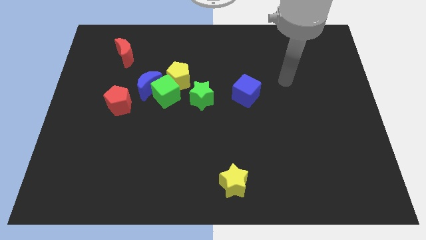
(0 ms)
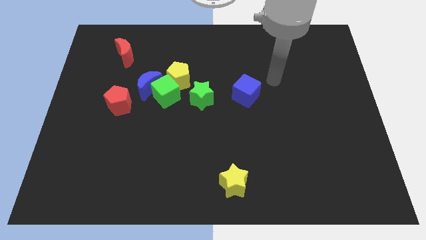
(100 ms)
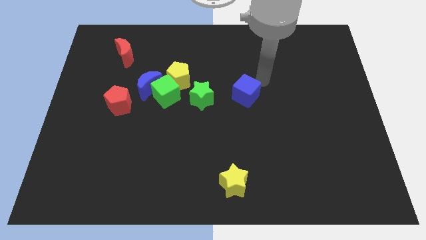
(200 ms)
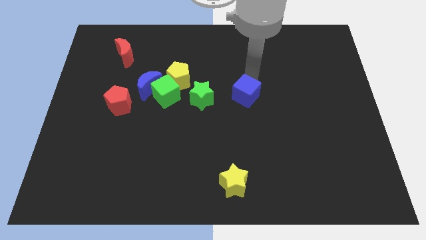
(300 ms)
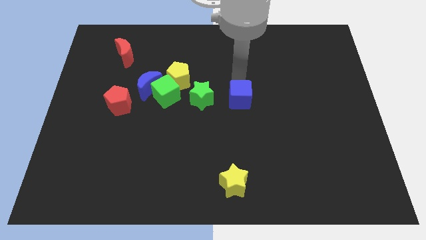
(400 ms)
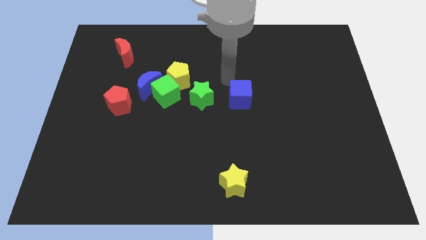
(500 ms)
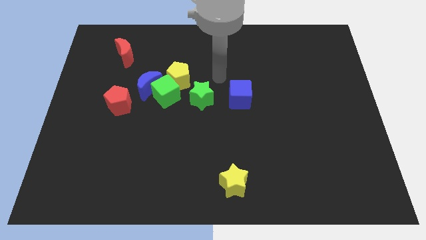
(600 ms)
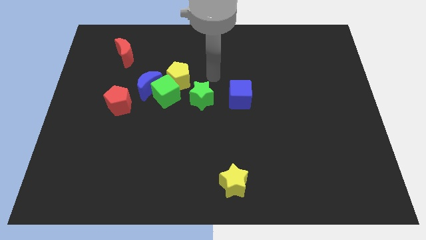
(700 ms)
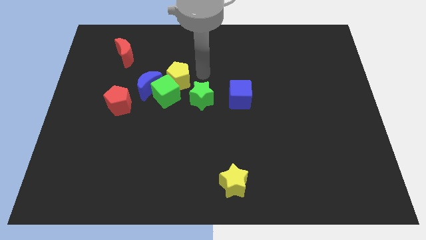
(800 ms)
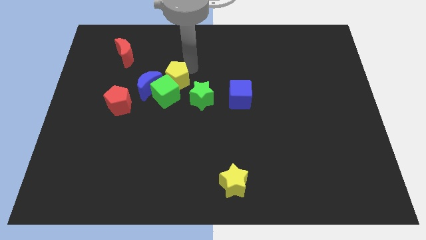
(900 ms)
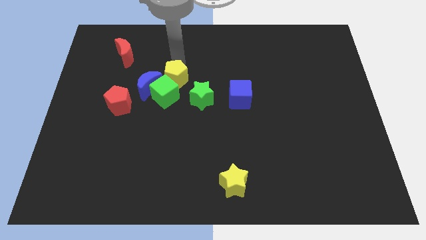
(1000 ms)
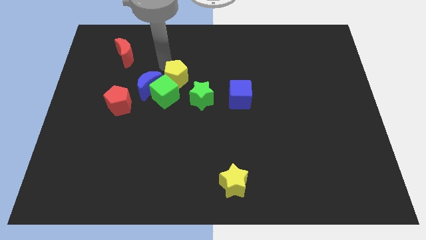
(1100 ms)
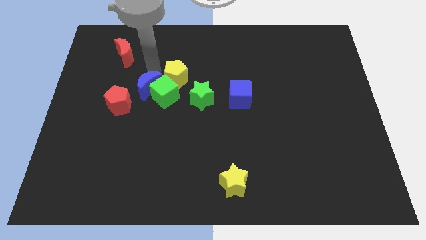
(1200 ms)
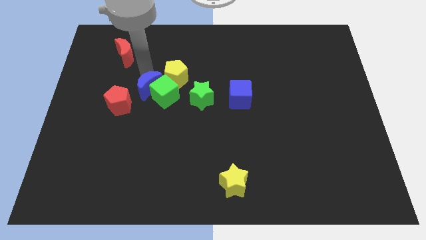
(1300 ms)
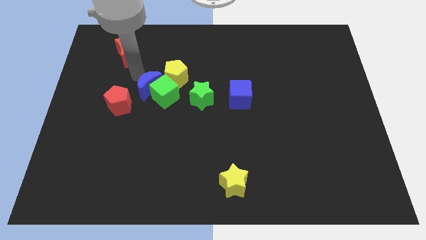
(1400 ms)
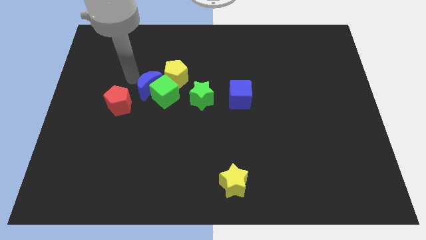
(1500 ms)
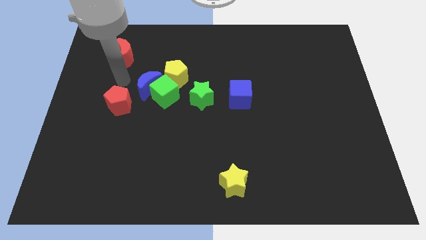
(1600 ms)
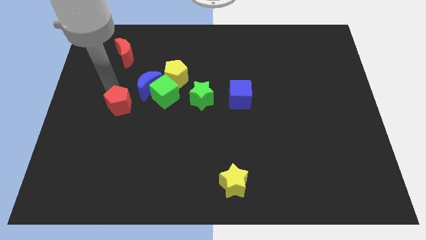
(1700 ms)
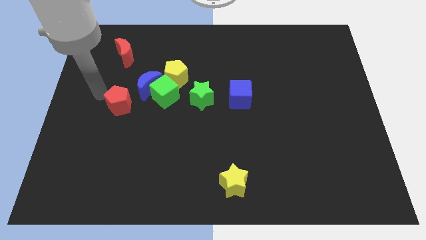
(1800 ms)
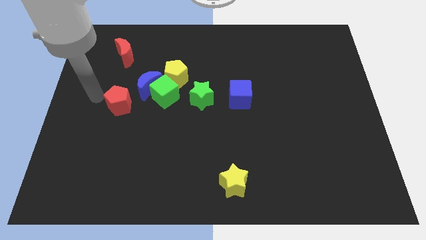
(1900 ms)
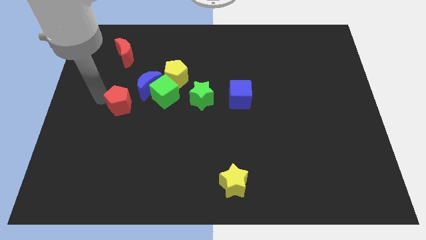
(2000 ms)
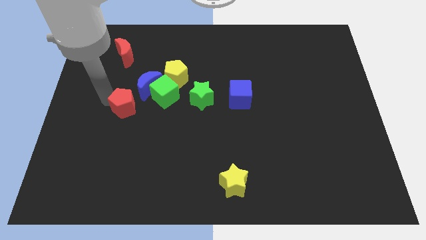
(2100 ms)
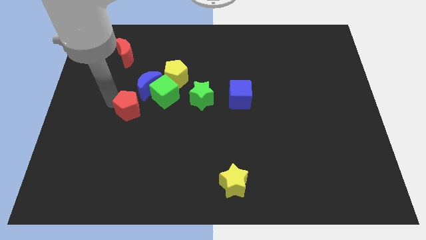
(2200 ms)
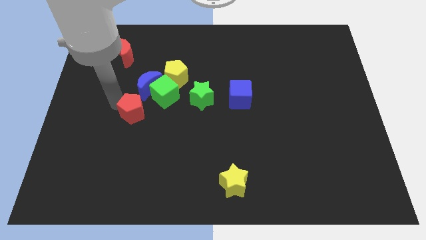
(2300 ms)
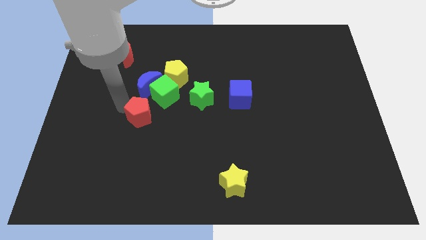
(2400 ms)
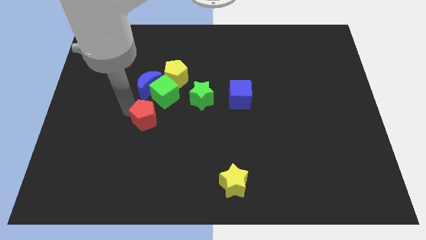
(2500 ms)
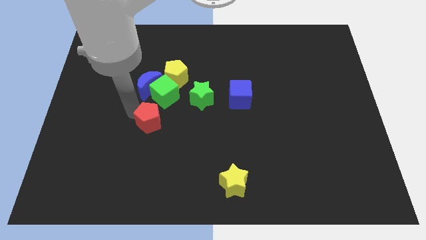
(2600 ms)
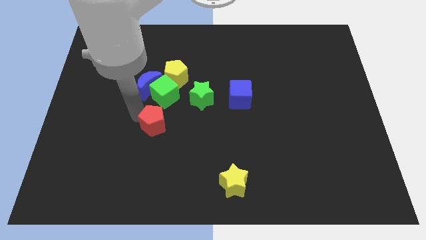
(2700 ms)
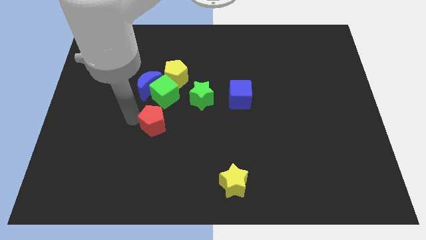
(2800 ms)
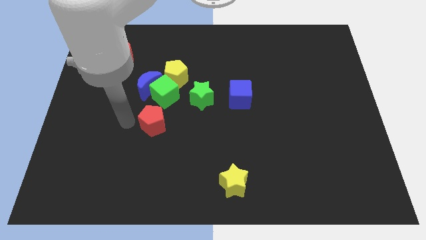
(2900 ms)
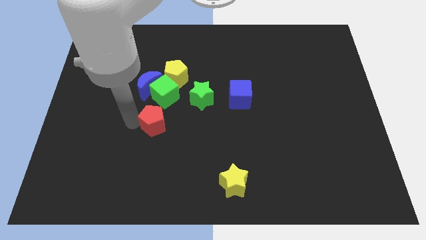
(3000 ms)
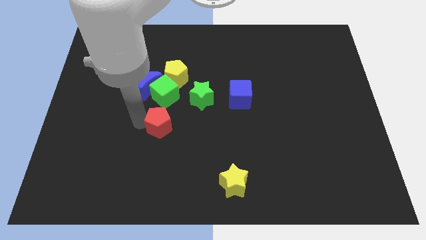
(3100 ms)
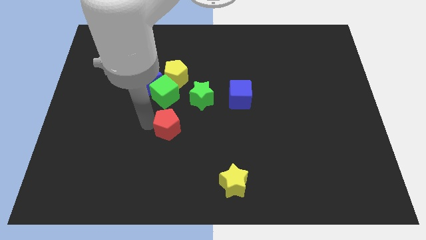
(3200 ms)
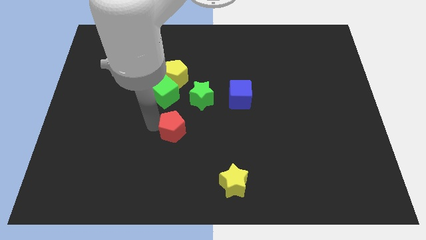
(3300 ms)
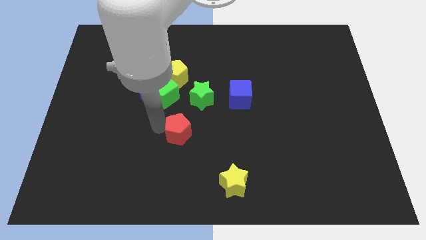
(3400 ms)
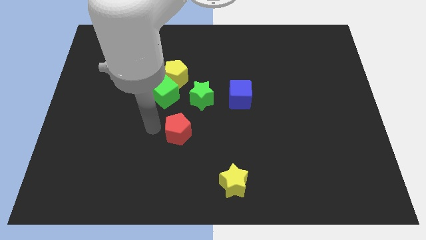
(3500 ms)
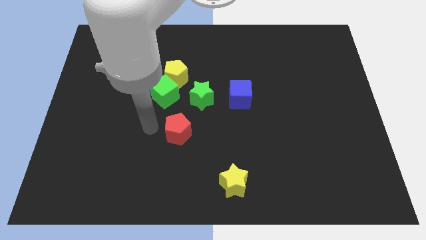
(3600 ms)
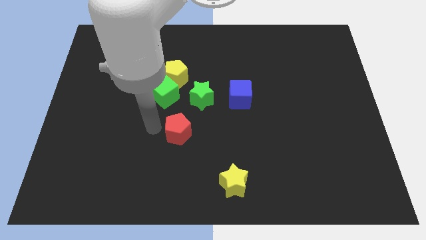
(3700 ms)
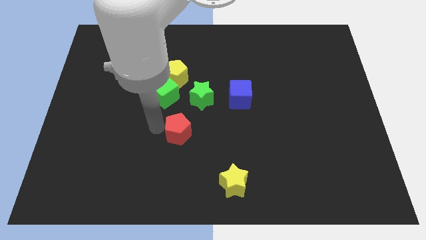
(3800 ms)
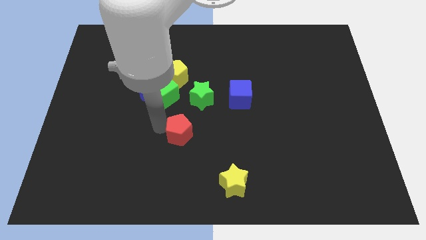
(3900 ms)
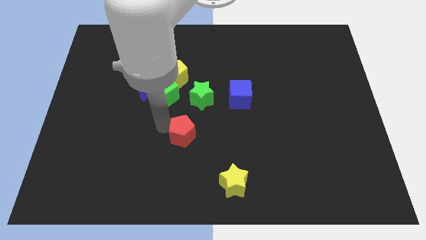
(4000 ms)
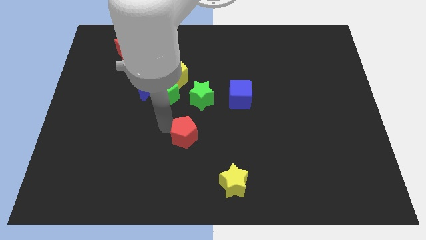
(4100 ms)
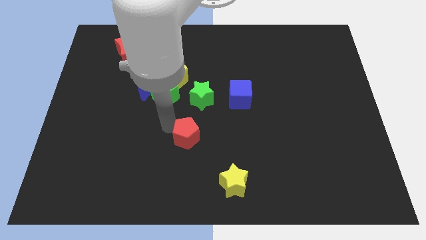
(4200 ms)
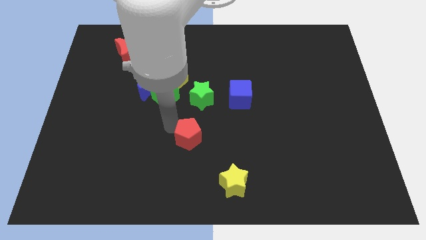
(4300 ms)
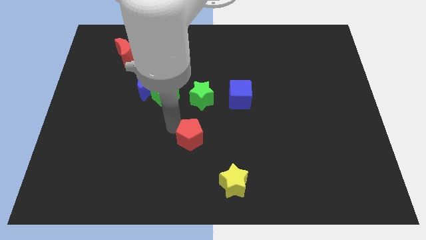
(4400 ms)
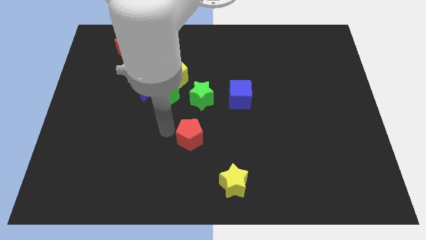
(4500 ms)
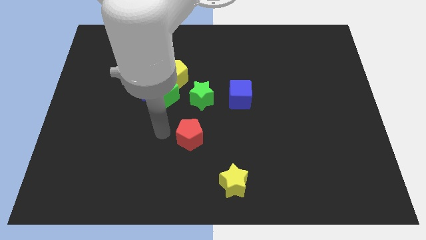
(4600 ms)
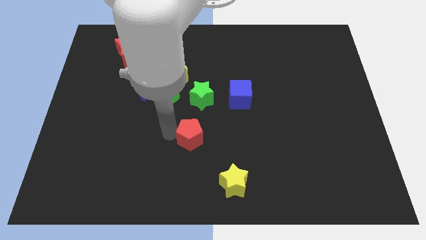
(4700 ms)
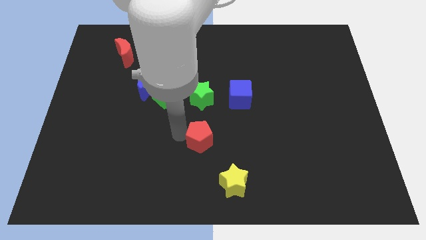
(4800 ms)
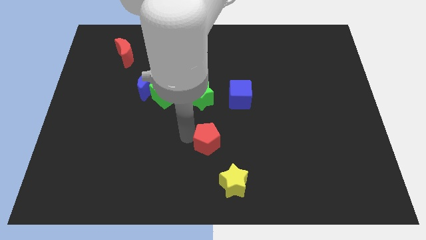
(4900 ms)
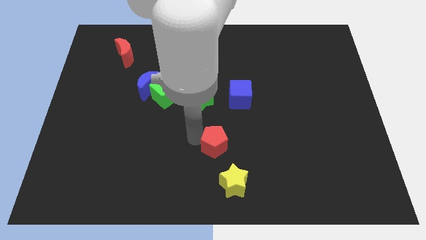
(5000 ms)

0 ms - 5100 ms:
move the red pentagon above the yellow star

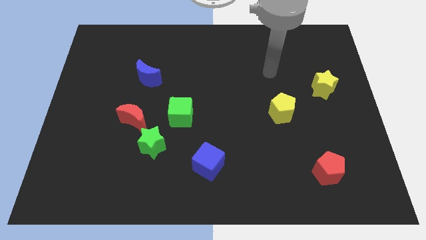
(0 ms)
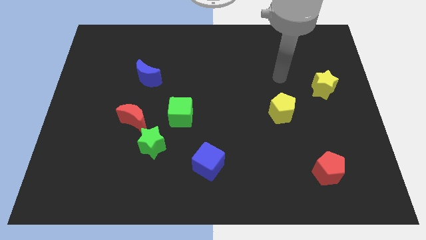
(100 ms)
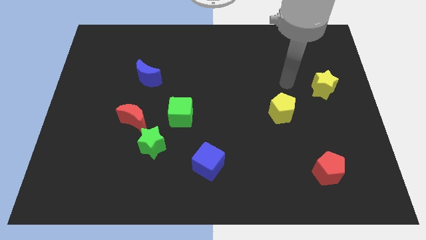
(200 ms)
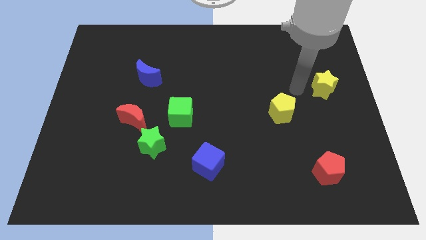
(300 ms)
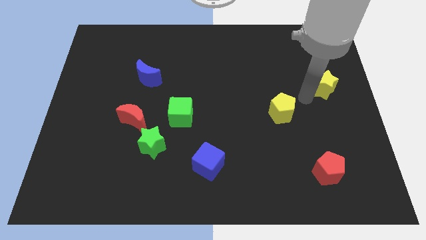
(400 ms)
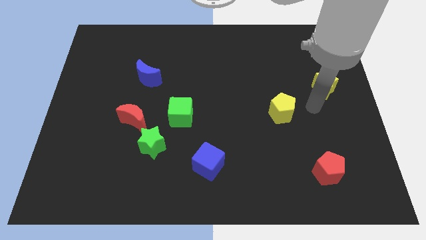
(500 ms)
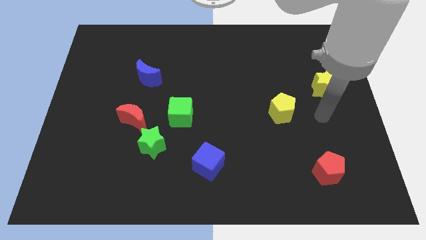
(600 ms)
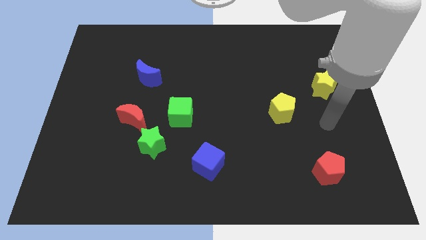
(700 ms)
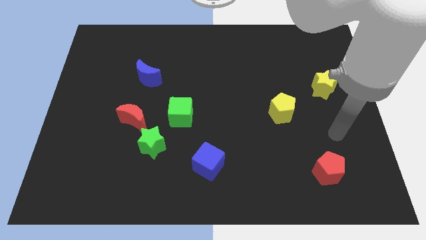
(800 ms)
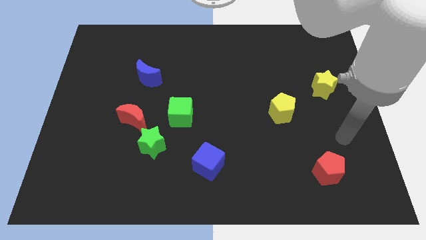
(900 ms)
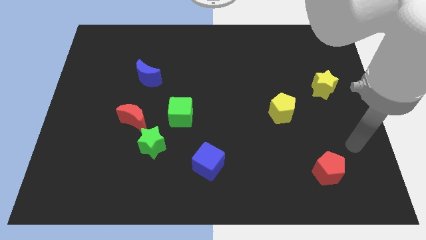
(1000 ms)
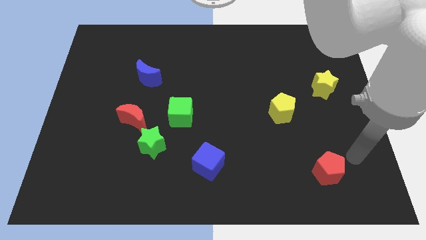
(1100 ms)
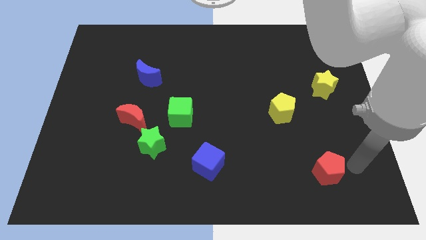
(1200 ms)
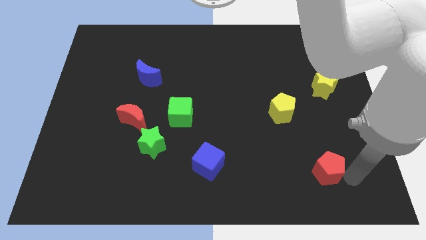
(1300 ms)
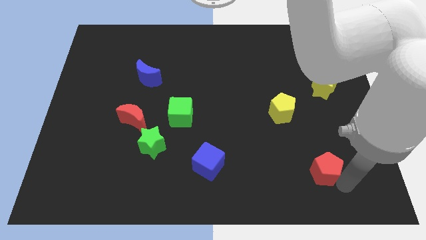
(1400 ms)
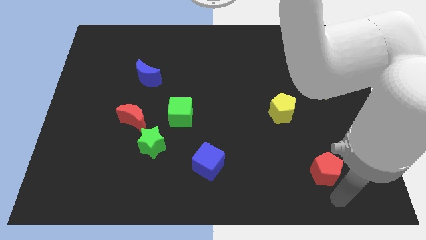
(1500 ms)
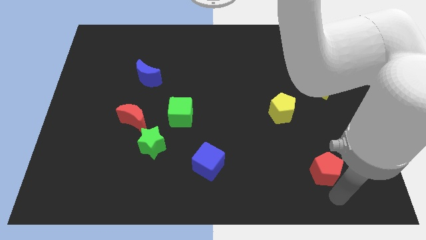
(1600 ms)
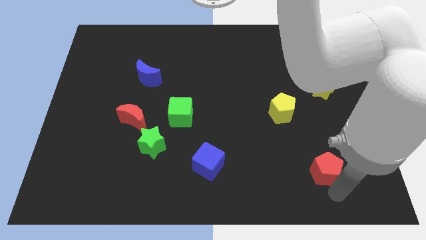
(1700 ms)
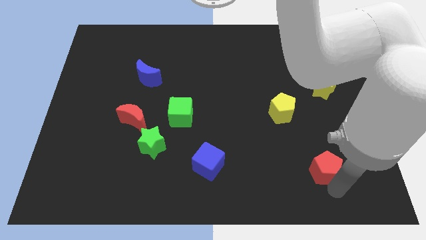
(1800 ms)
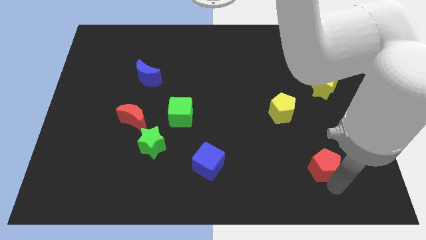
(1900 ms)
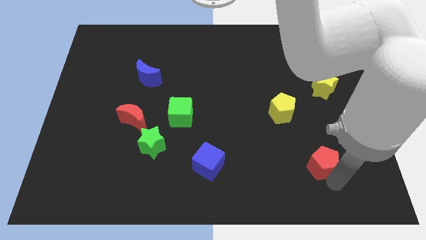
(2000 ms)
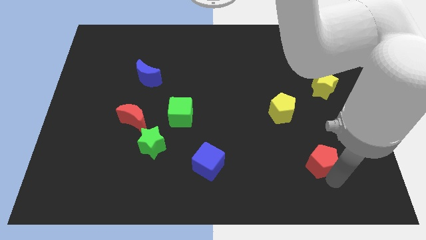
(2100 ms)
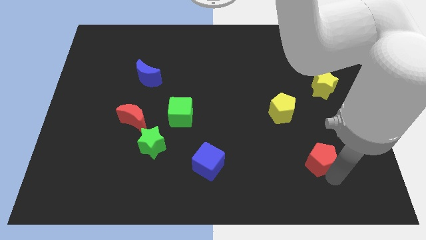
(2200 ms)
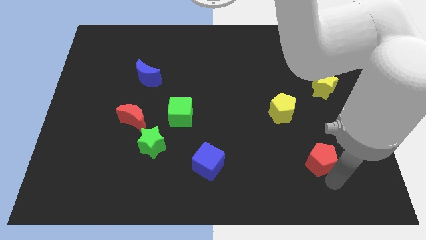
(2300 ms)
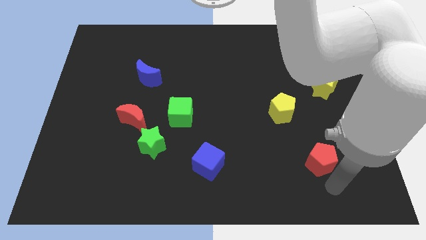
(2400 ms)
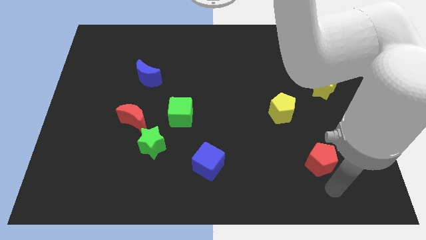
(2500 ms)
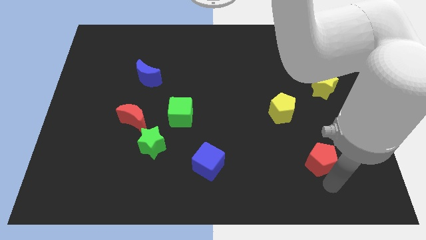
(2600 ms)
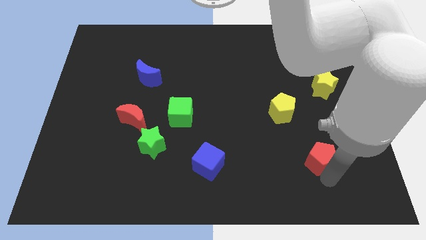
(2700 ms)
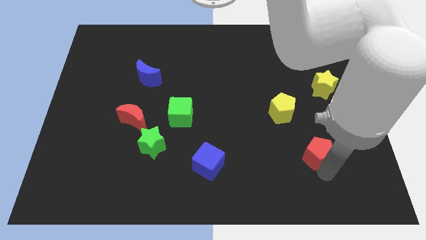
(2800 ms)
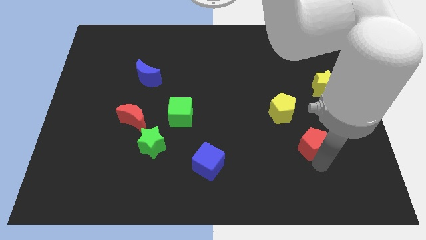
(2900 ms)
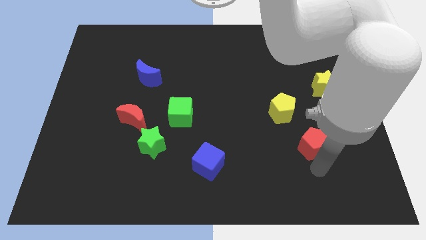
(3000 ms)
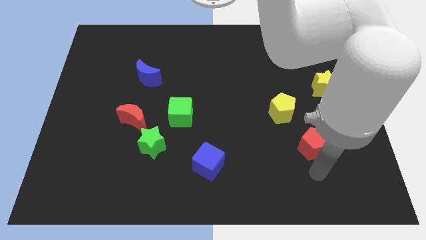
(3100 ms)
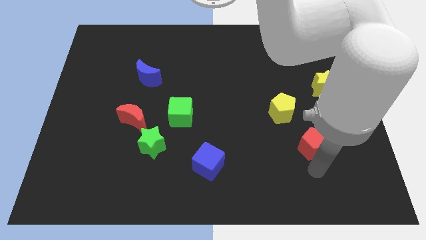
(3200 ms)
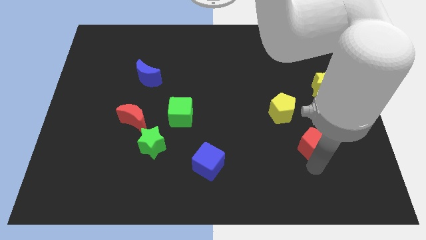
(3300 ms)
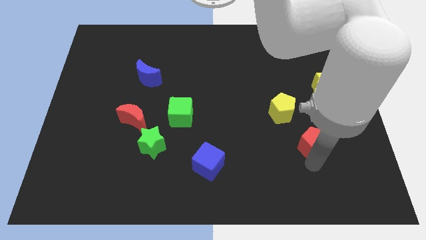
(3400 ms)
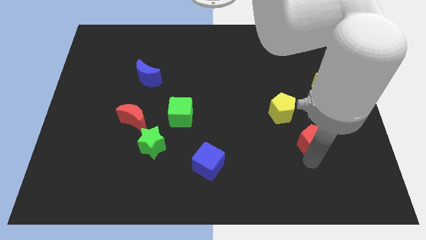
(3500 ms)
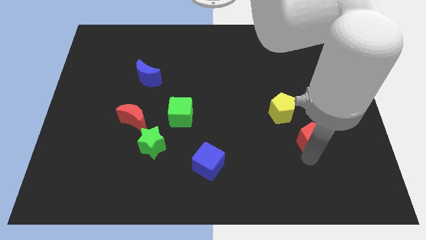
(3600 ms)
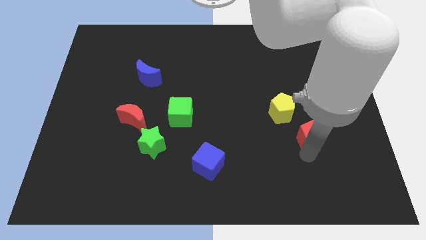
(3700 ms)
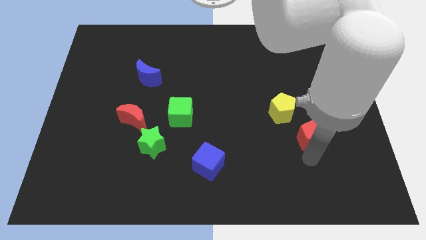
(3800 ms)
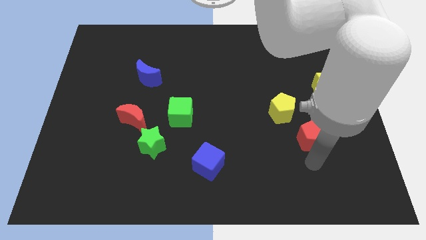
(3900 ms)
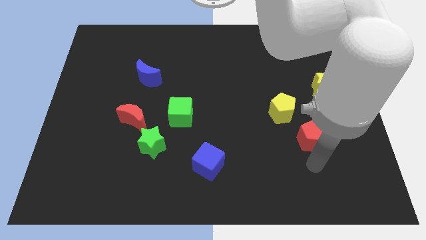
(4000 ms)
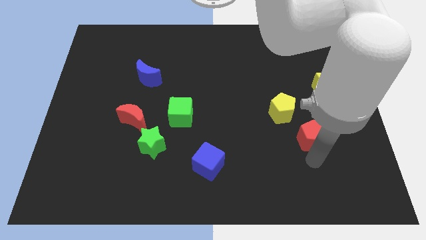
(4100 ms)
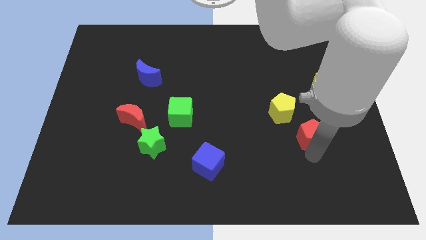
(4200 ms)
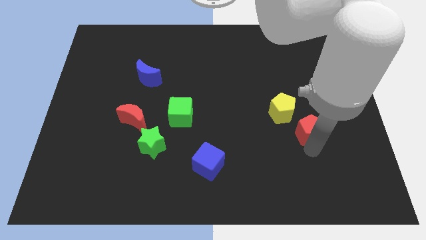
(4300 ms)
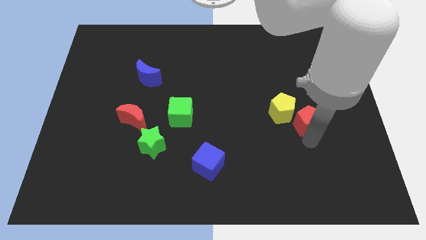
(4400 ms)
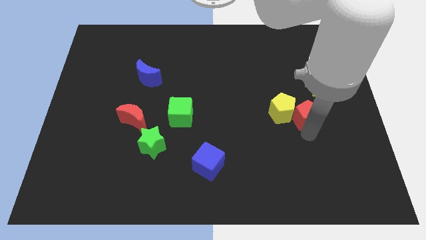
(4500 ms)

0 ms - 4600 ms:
put the red pentagon diagonally down and to the left of the yellow star
